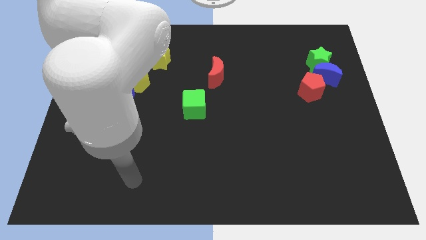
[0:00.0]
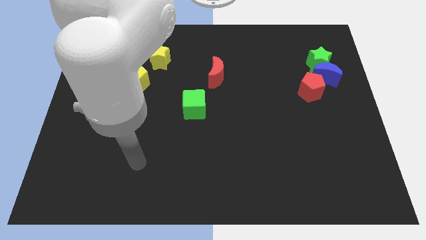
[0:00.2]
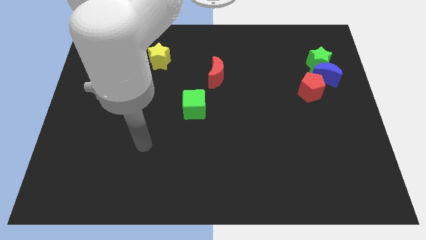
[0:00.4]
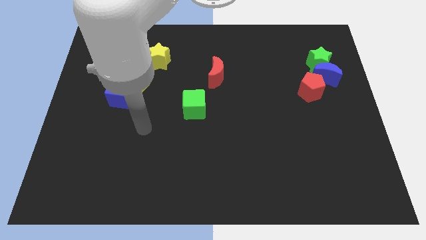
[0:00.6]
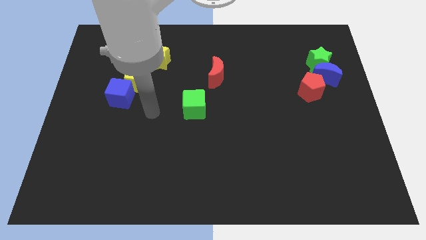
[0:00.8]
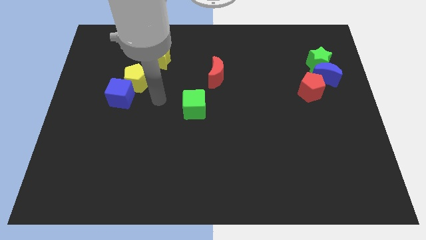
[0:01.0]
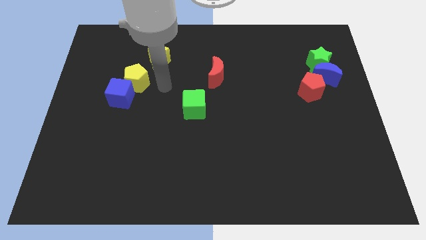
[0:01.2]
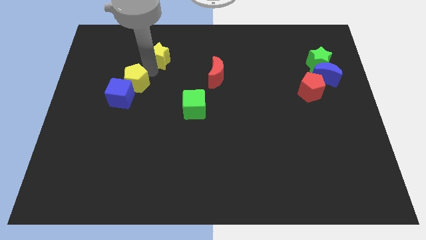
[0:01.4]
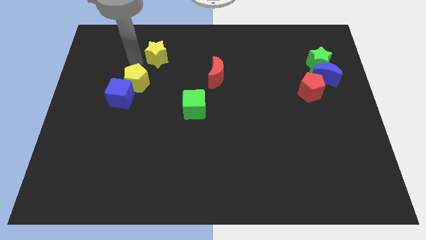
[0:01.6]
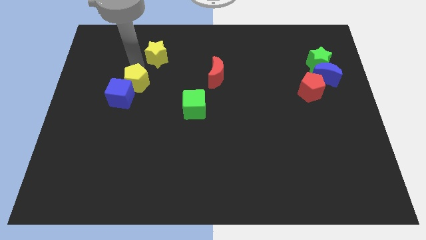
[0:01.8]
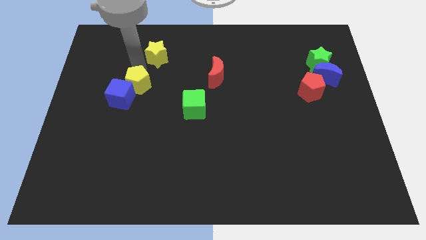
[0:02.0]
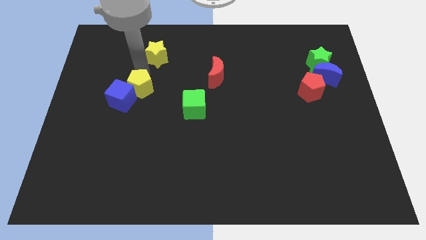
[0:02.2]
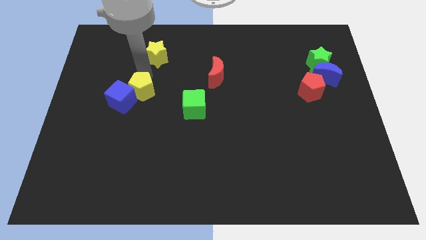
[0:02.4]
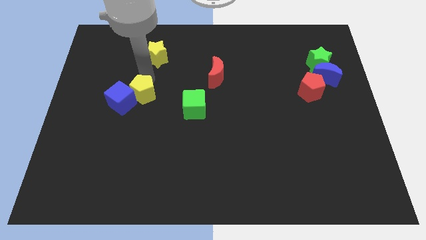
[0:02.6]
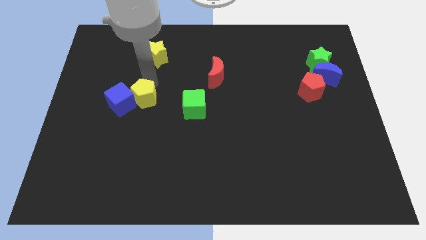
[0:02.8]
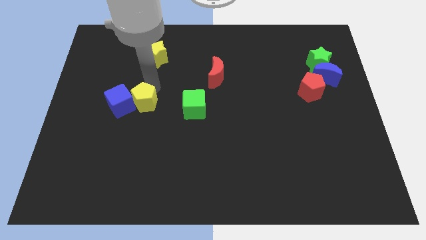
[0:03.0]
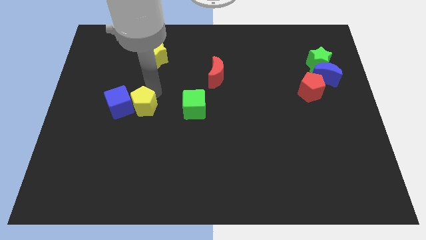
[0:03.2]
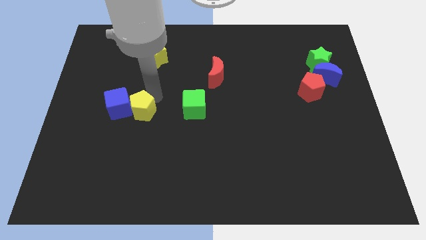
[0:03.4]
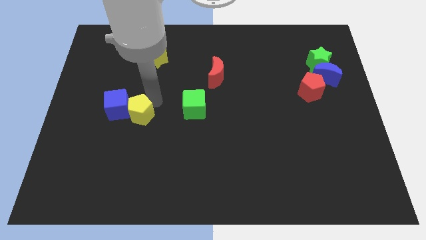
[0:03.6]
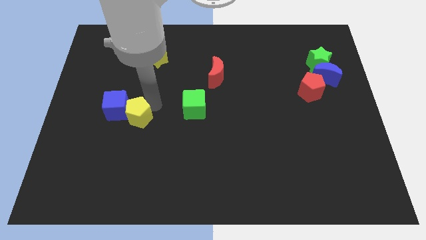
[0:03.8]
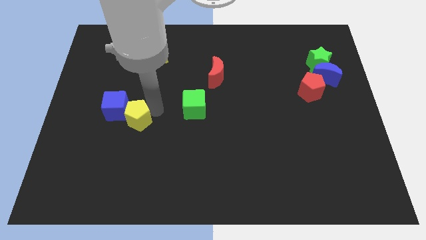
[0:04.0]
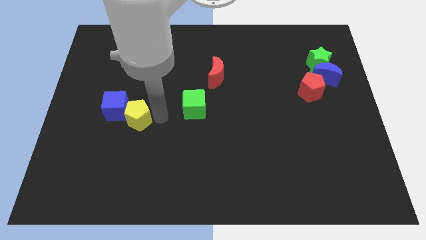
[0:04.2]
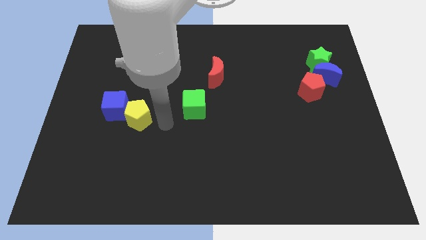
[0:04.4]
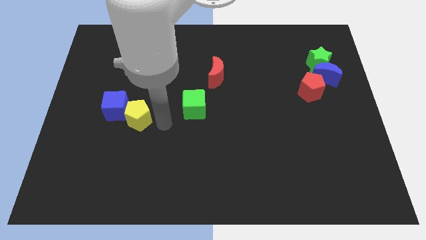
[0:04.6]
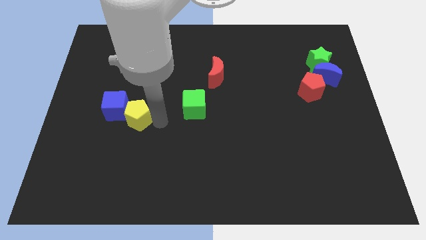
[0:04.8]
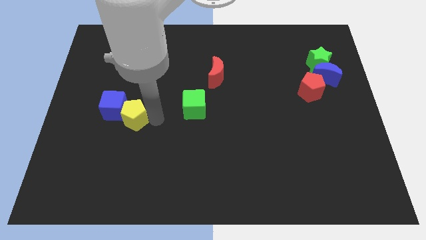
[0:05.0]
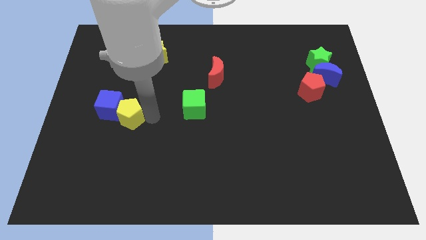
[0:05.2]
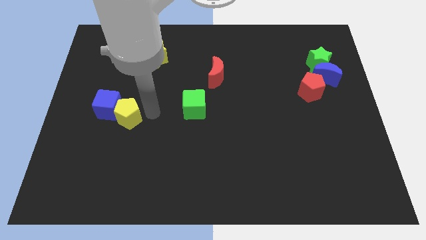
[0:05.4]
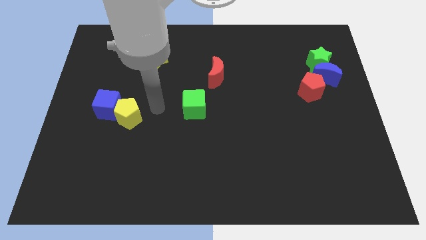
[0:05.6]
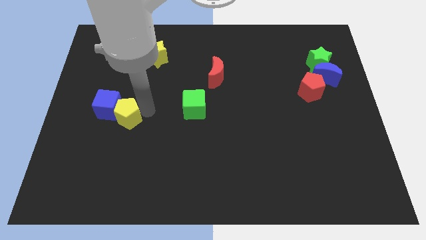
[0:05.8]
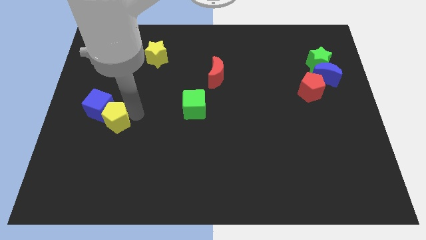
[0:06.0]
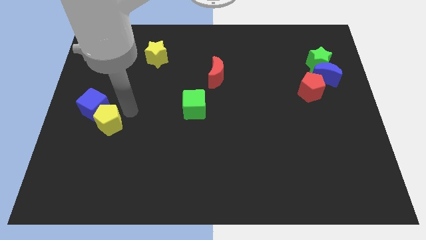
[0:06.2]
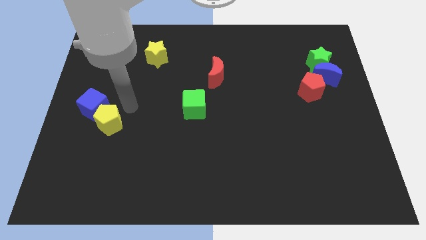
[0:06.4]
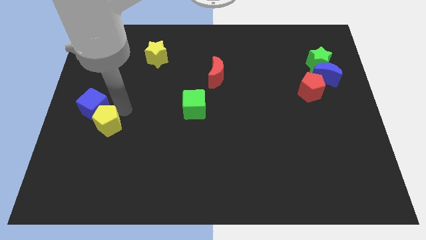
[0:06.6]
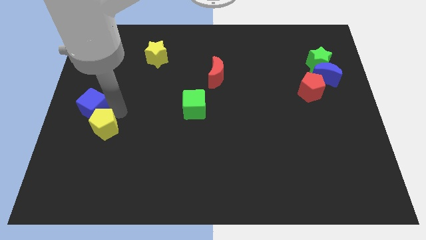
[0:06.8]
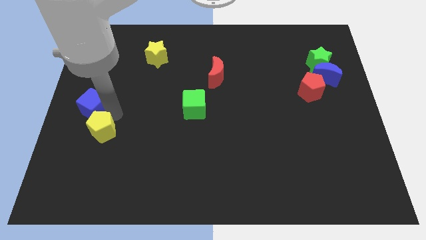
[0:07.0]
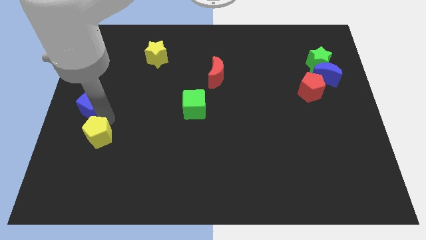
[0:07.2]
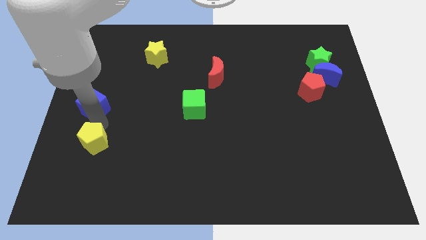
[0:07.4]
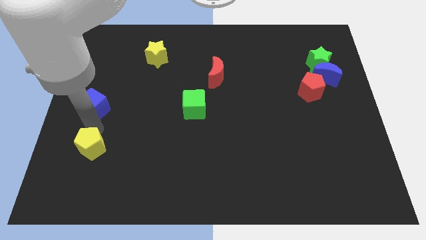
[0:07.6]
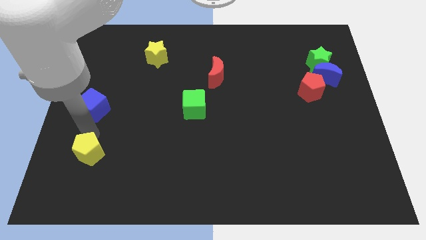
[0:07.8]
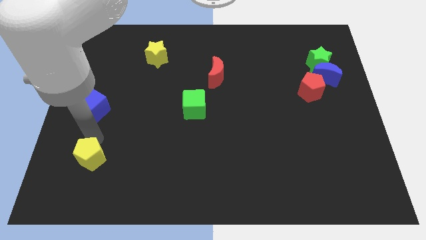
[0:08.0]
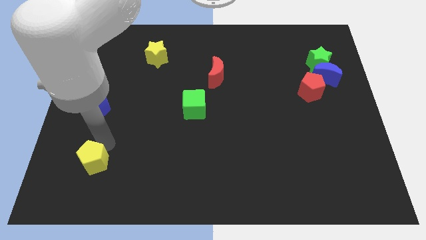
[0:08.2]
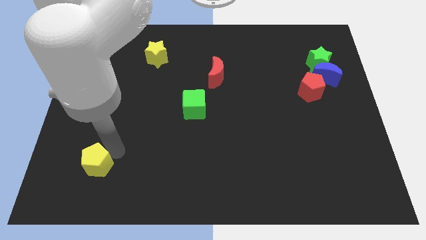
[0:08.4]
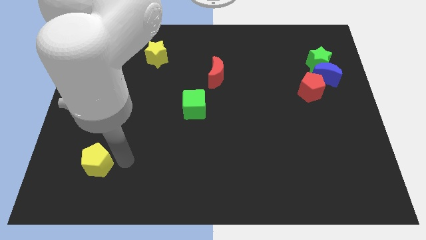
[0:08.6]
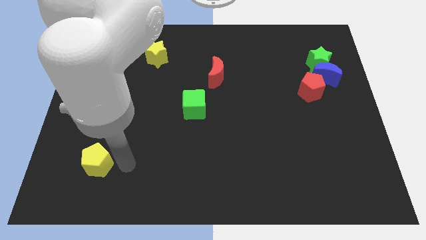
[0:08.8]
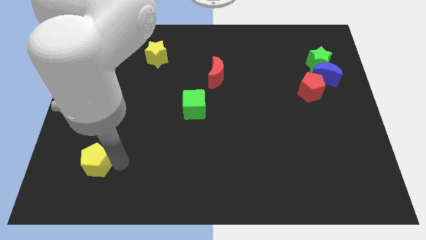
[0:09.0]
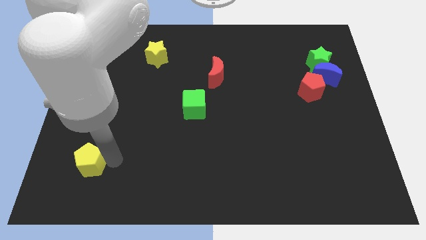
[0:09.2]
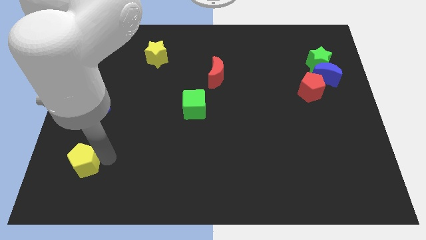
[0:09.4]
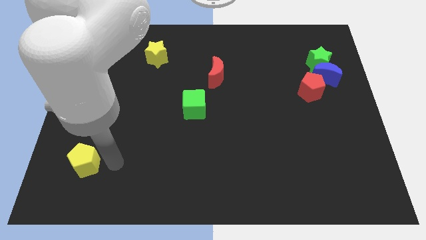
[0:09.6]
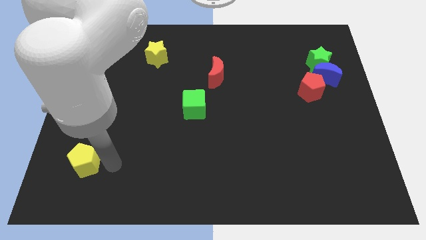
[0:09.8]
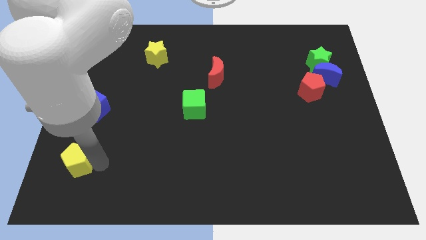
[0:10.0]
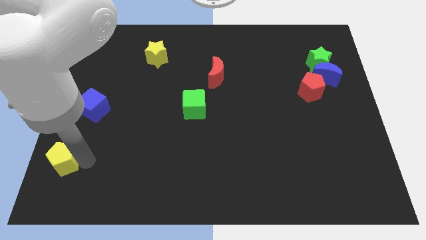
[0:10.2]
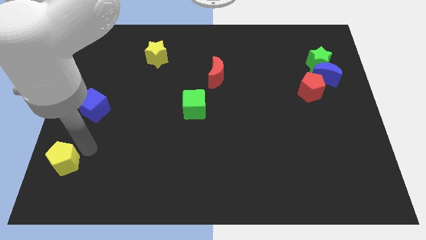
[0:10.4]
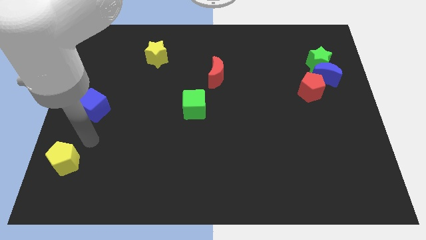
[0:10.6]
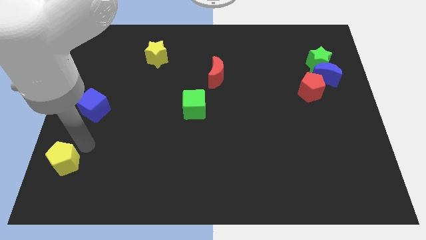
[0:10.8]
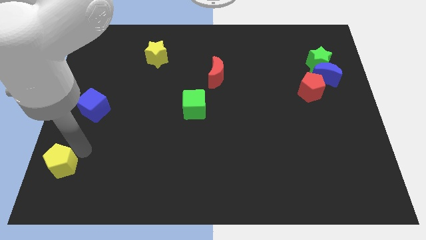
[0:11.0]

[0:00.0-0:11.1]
move the yellow pentagon to the lower left corner
